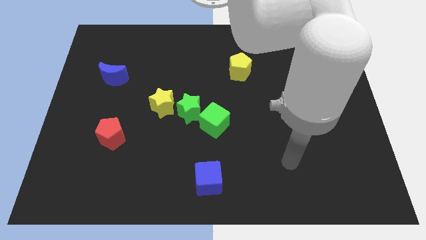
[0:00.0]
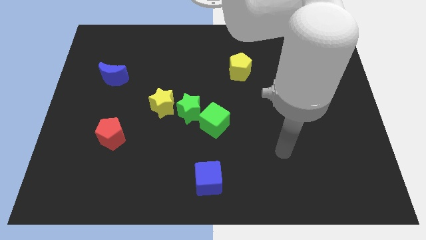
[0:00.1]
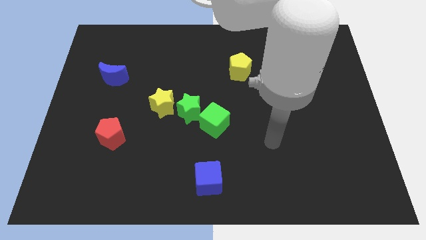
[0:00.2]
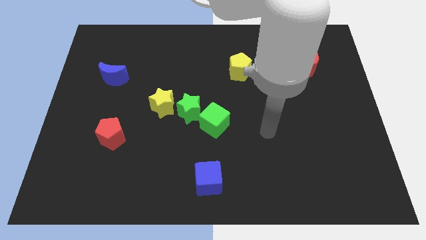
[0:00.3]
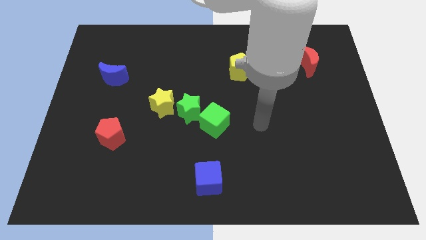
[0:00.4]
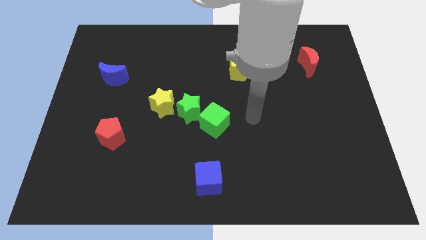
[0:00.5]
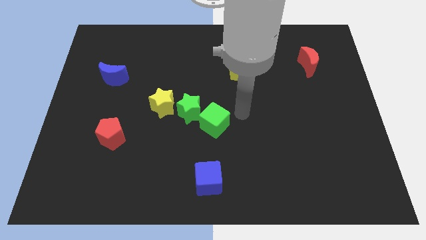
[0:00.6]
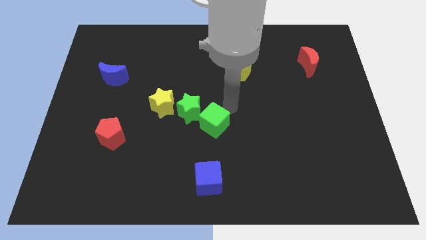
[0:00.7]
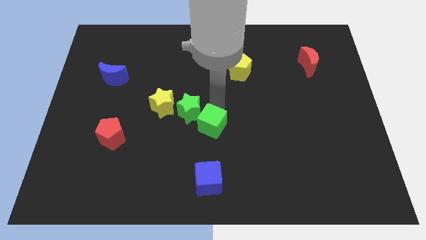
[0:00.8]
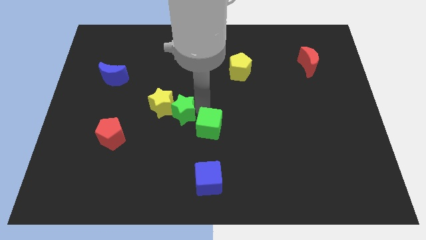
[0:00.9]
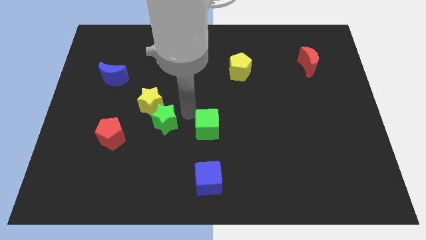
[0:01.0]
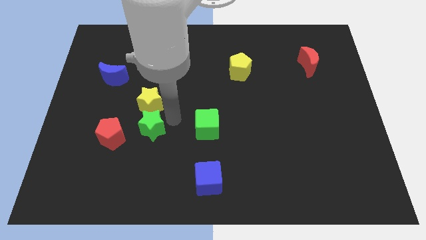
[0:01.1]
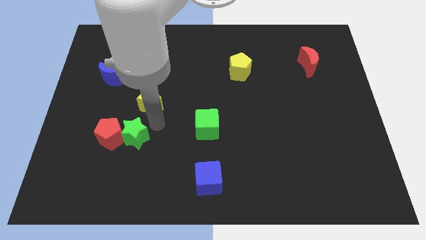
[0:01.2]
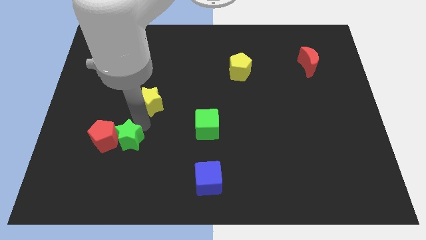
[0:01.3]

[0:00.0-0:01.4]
separate the yellow star from the green star

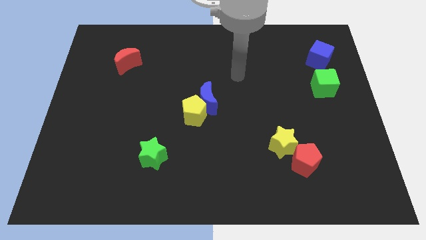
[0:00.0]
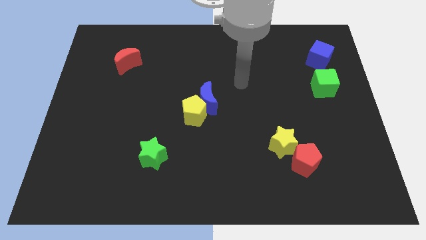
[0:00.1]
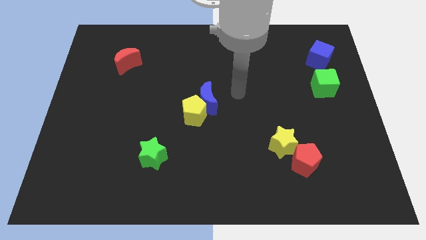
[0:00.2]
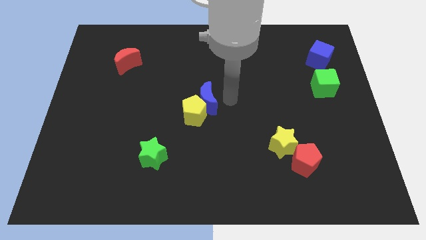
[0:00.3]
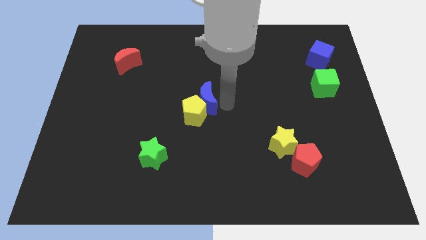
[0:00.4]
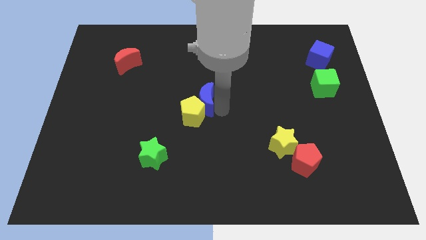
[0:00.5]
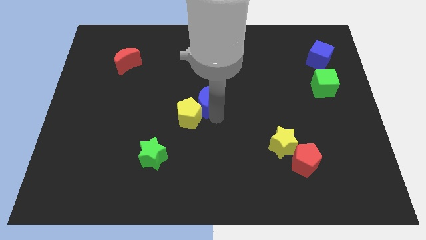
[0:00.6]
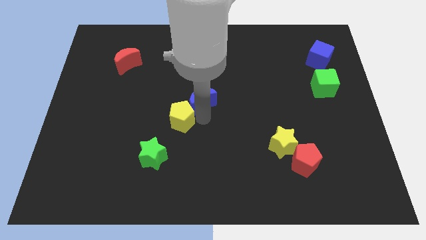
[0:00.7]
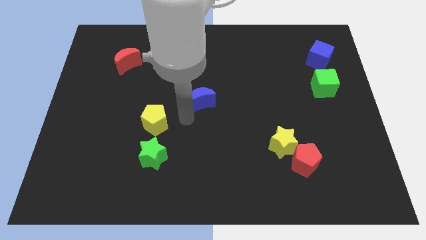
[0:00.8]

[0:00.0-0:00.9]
separate the blue moon from the yellow pentagon

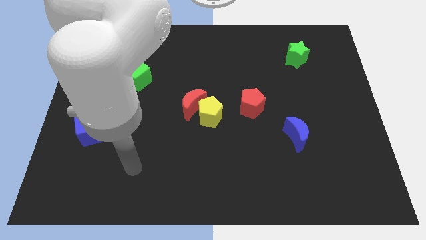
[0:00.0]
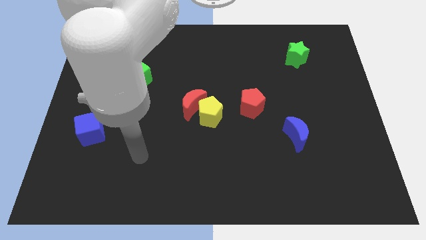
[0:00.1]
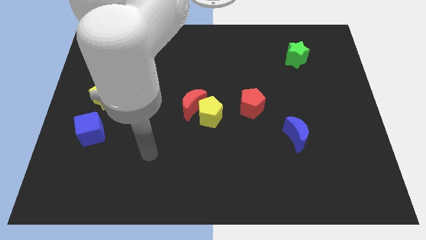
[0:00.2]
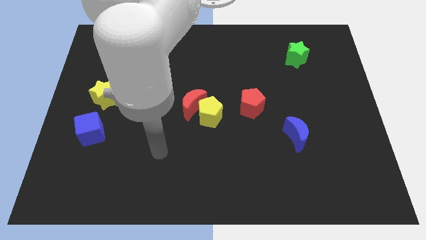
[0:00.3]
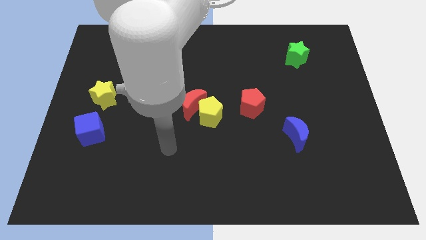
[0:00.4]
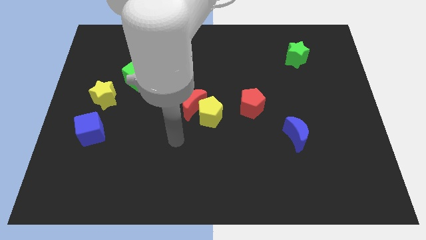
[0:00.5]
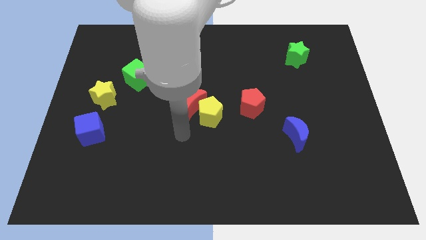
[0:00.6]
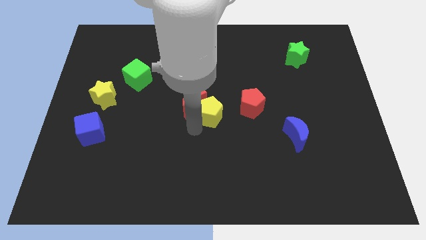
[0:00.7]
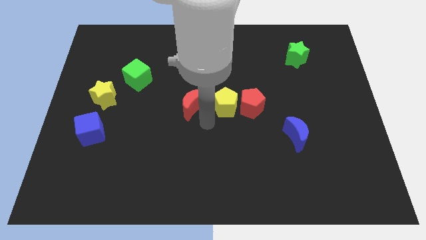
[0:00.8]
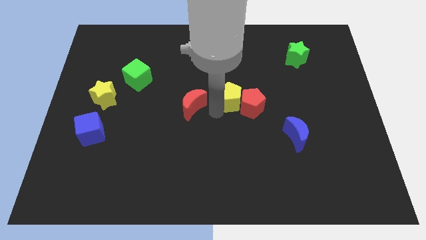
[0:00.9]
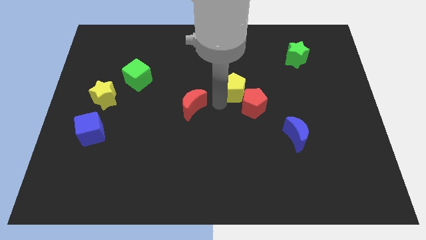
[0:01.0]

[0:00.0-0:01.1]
move the red moon away from the yellow pentagon

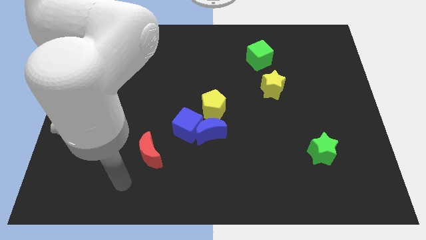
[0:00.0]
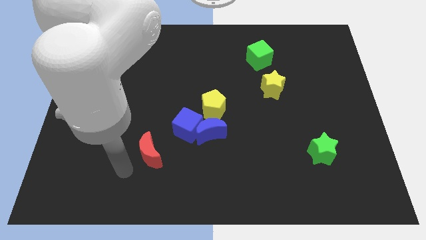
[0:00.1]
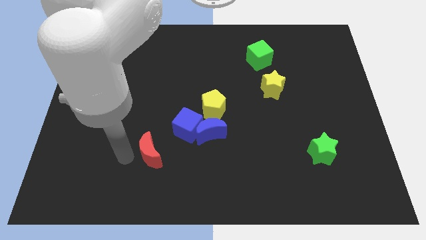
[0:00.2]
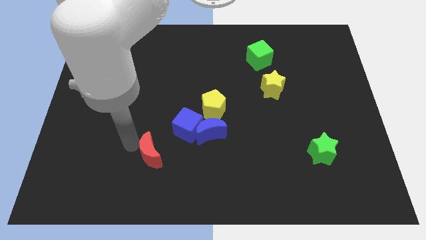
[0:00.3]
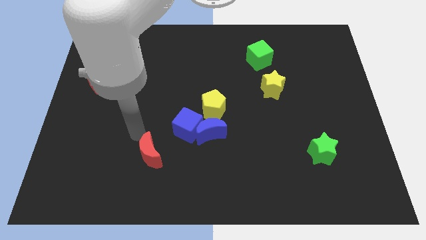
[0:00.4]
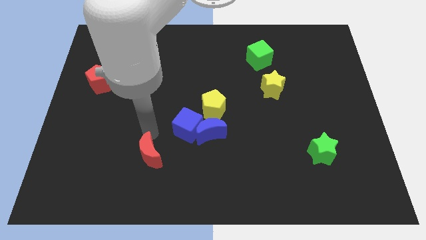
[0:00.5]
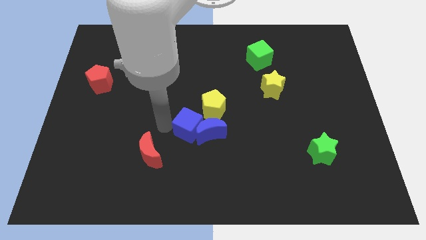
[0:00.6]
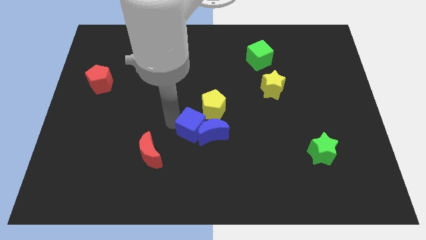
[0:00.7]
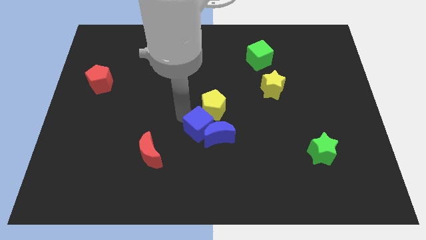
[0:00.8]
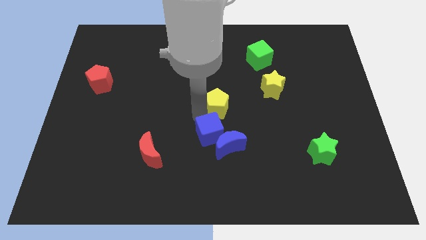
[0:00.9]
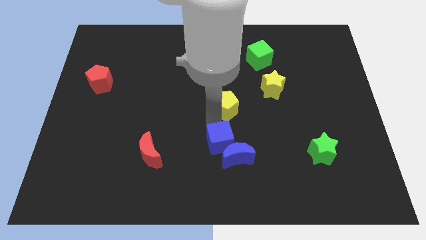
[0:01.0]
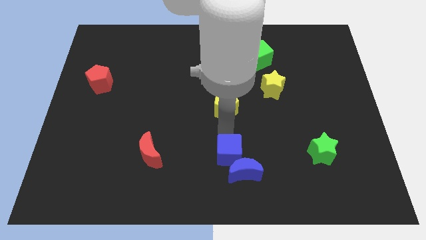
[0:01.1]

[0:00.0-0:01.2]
pull the blue moon apart from the blue cube and yellow pentagon

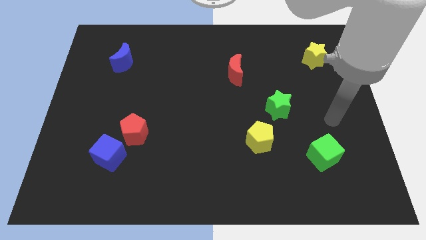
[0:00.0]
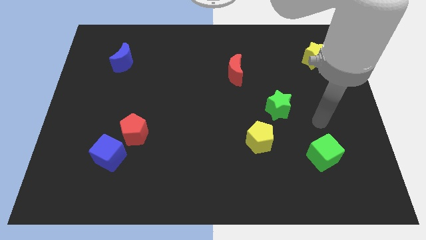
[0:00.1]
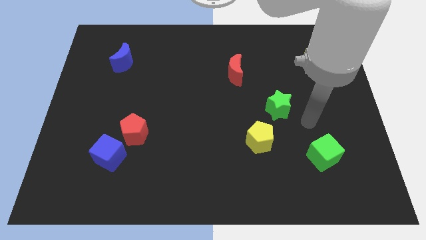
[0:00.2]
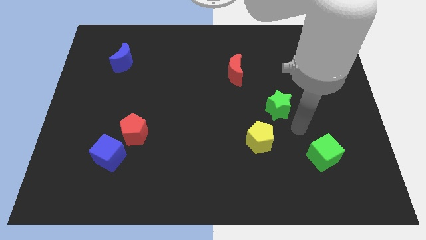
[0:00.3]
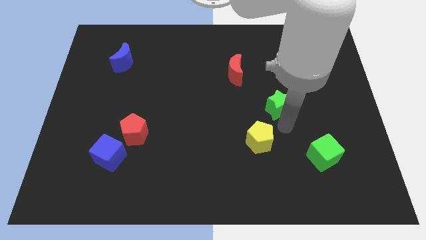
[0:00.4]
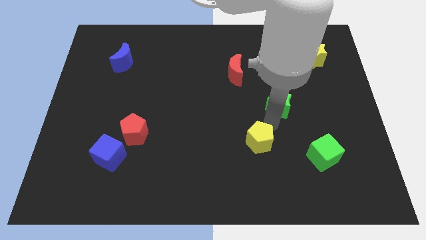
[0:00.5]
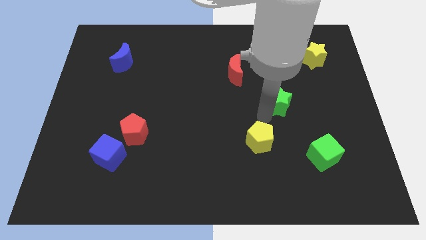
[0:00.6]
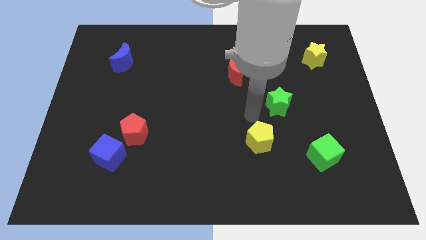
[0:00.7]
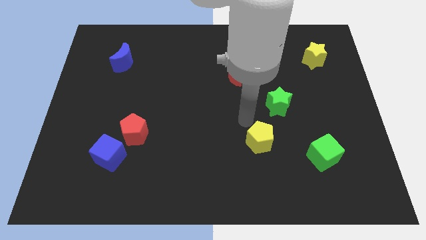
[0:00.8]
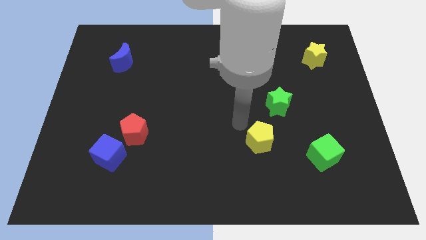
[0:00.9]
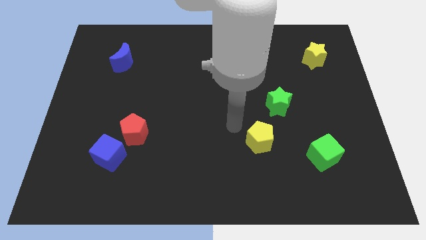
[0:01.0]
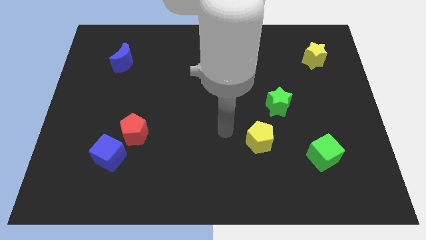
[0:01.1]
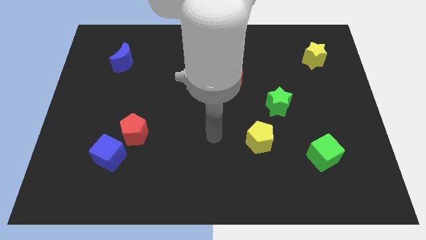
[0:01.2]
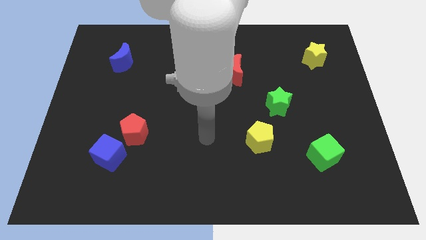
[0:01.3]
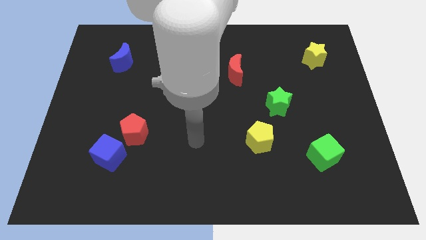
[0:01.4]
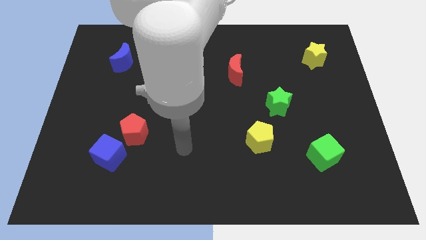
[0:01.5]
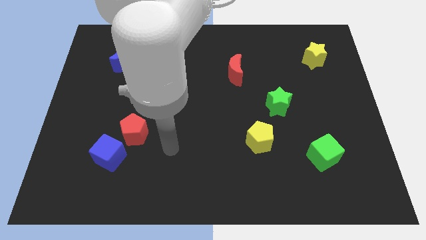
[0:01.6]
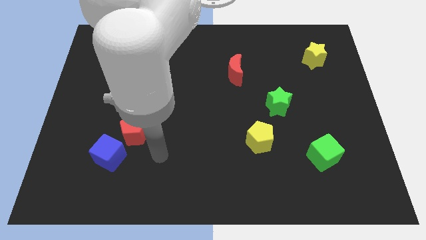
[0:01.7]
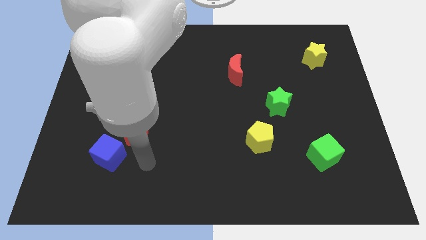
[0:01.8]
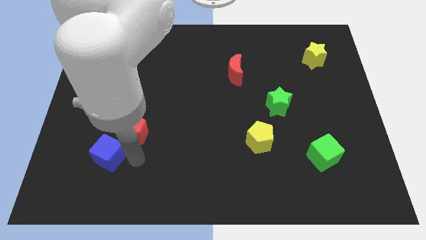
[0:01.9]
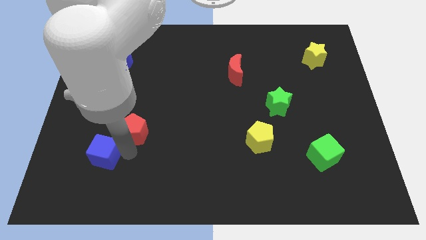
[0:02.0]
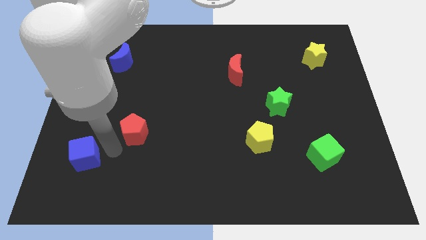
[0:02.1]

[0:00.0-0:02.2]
move the red pentagon away from the blue cube

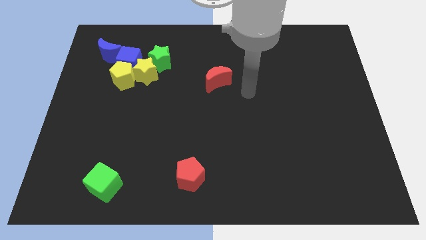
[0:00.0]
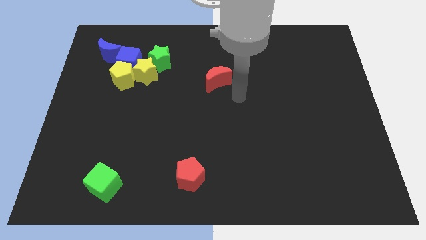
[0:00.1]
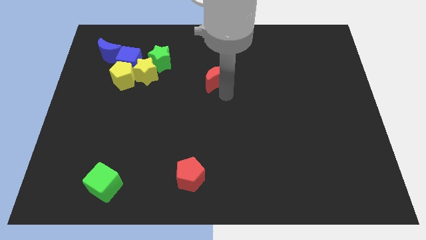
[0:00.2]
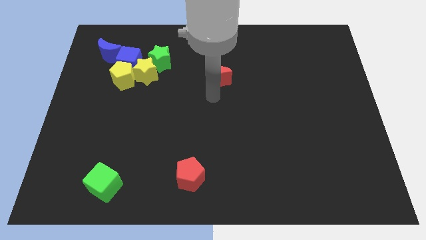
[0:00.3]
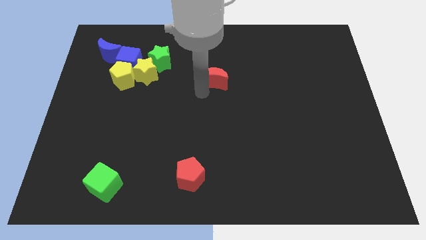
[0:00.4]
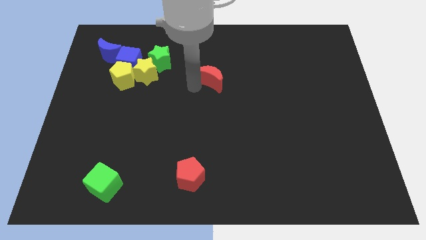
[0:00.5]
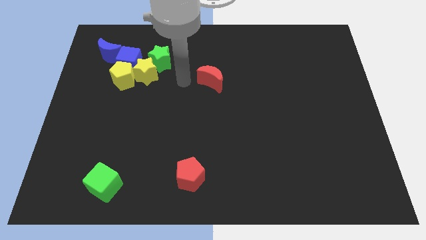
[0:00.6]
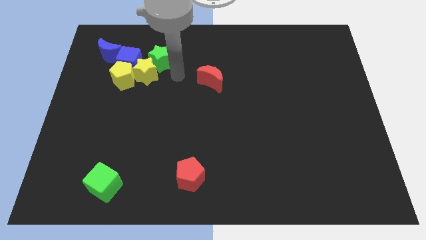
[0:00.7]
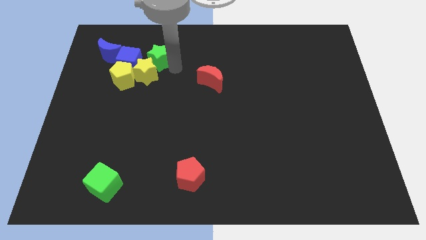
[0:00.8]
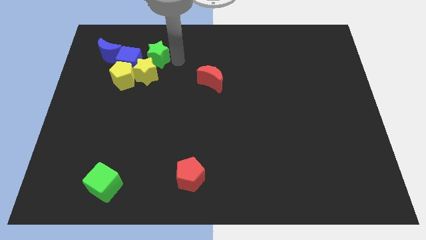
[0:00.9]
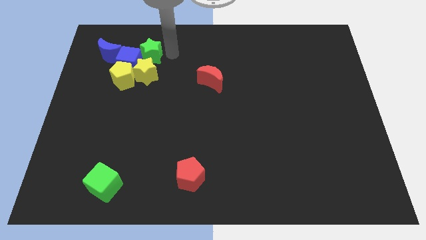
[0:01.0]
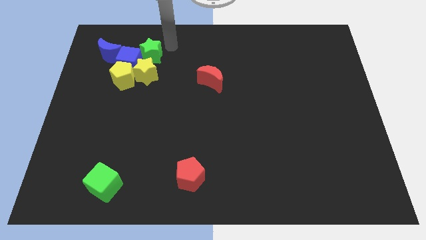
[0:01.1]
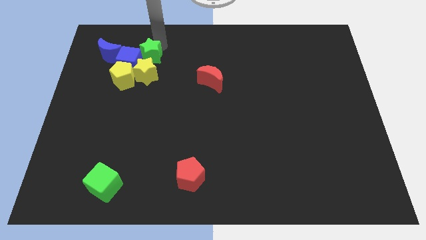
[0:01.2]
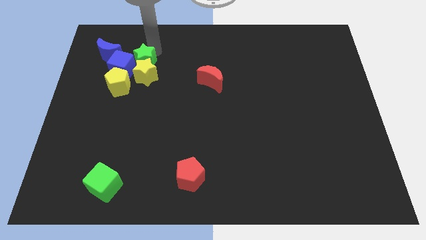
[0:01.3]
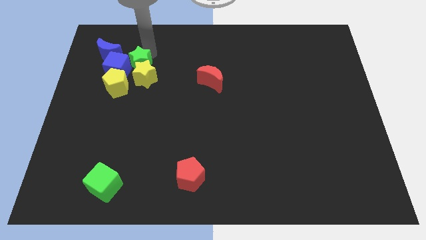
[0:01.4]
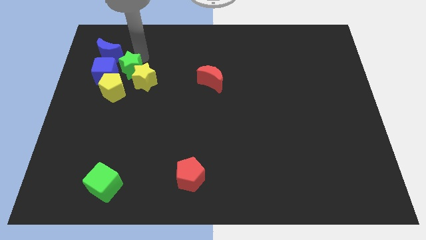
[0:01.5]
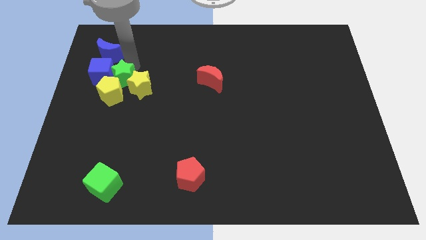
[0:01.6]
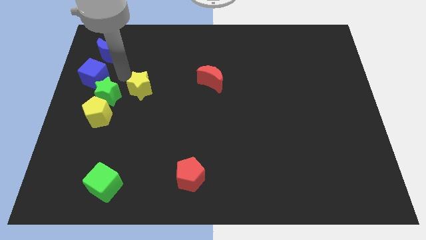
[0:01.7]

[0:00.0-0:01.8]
pull the yellow star apart from the yellow pentagon, green star, and blue cube

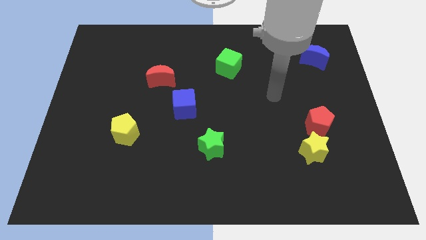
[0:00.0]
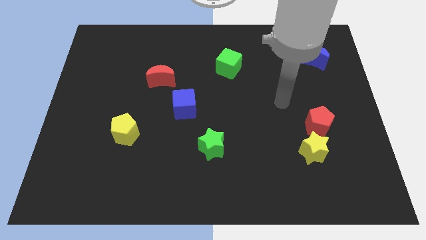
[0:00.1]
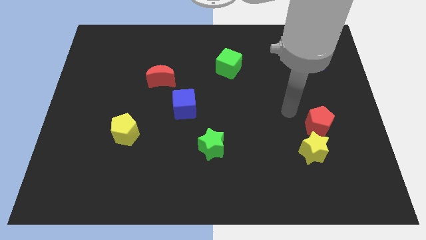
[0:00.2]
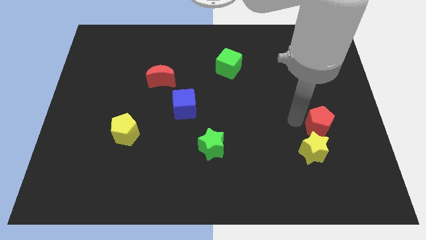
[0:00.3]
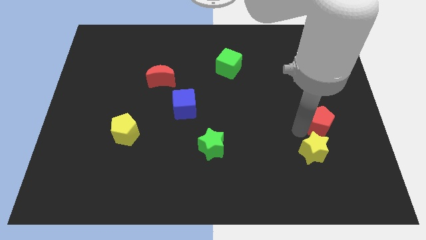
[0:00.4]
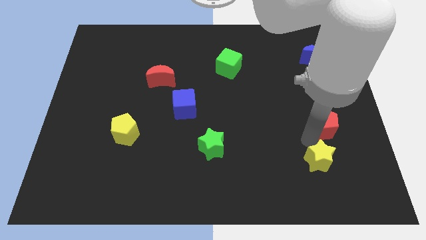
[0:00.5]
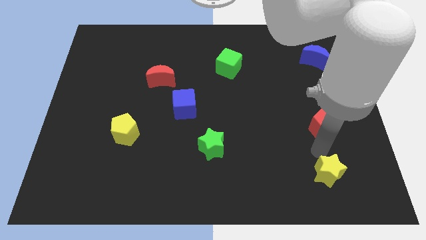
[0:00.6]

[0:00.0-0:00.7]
pull the red pentagon apart from the yellow star
